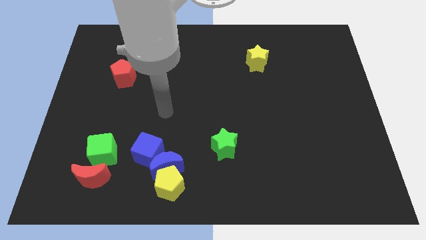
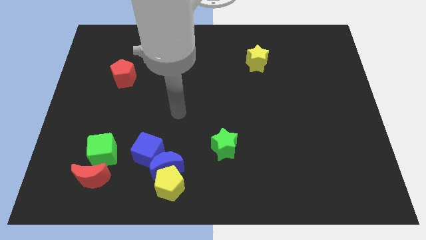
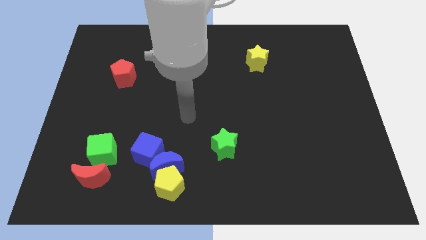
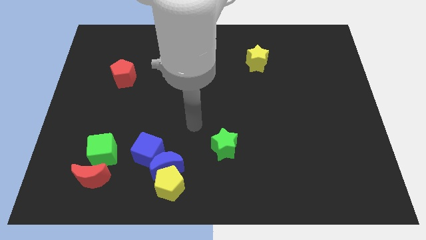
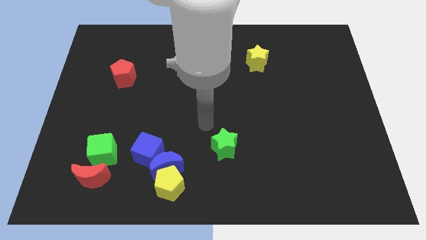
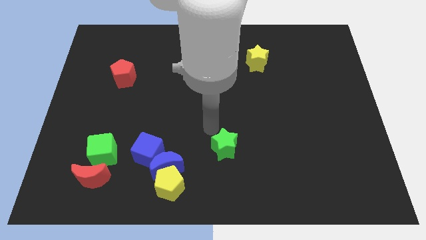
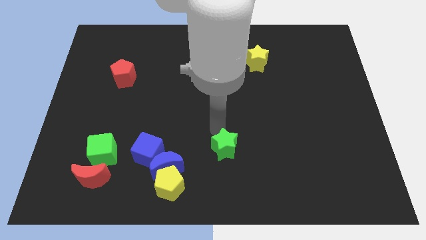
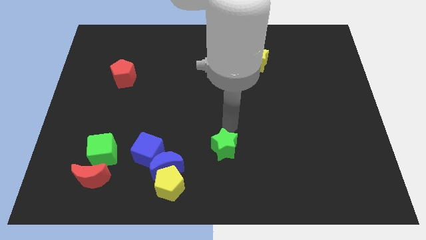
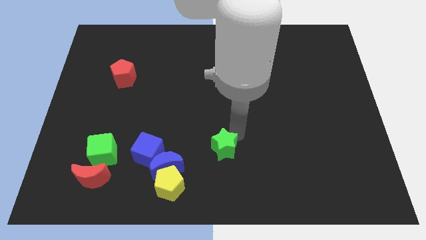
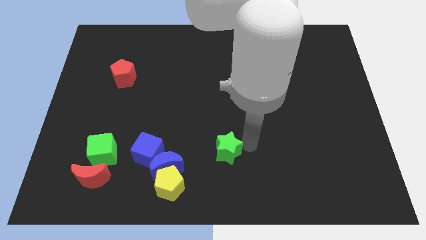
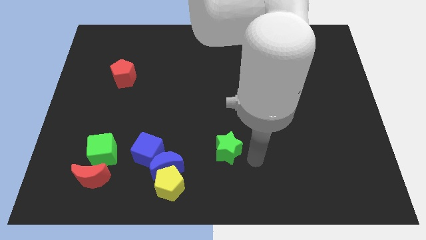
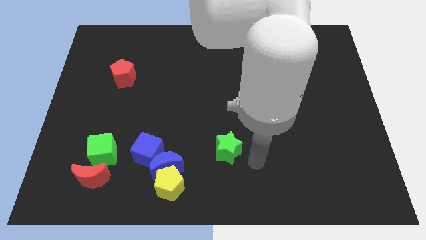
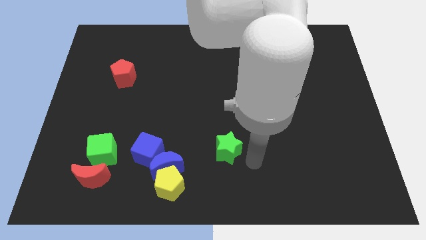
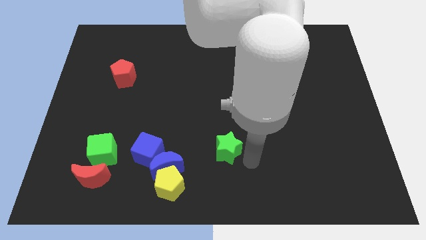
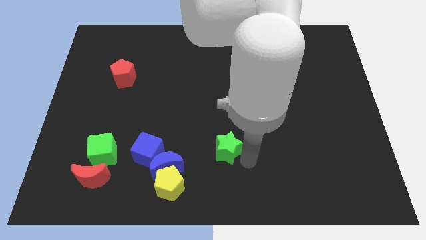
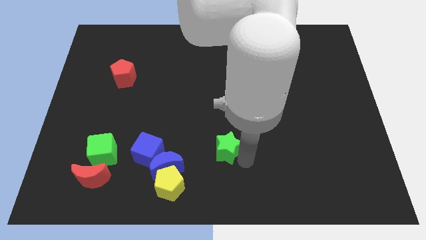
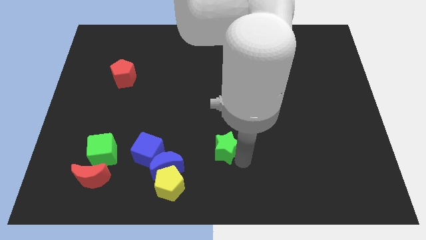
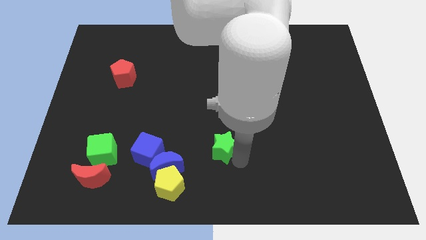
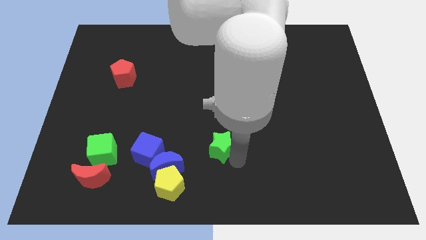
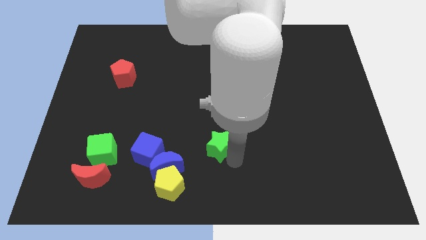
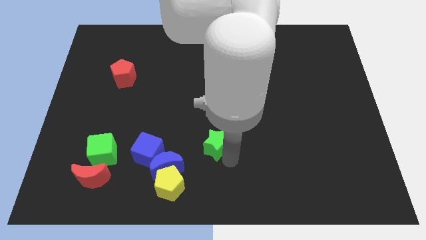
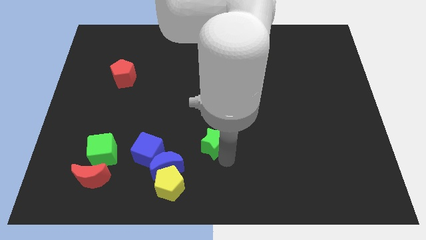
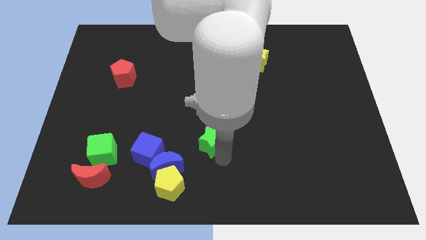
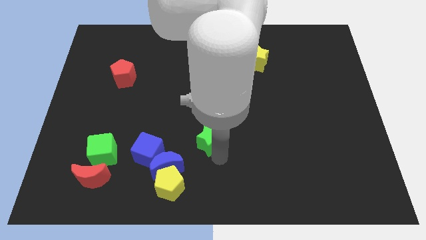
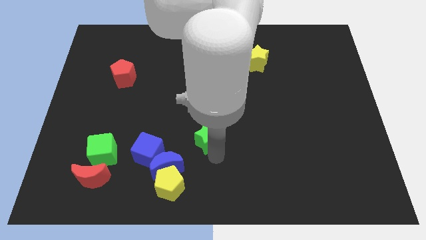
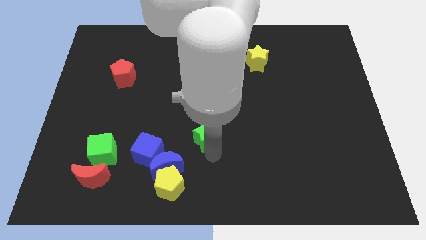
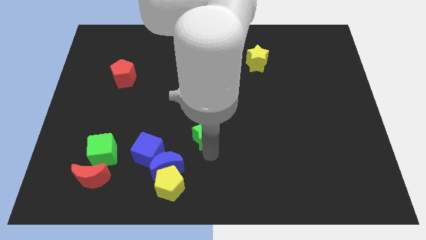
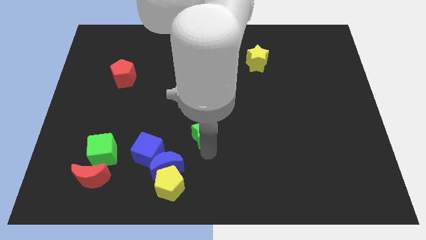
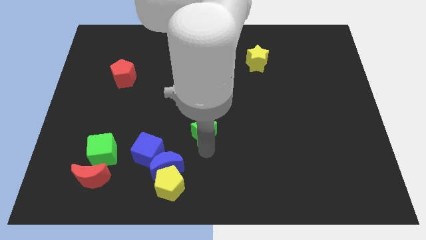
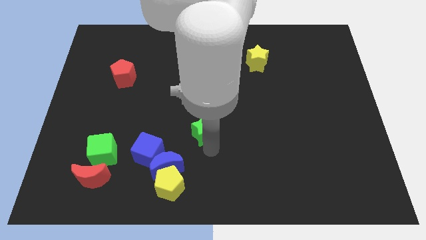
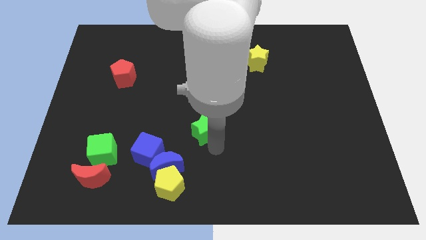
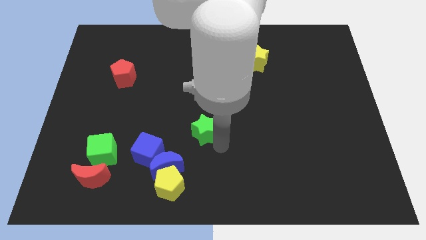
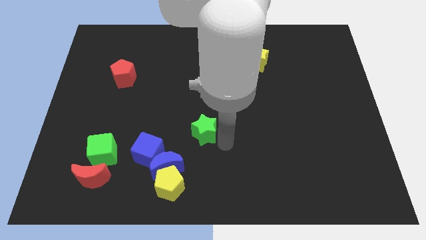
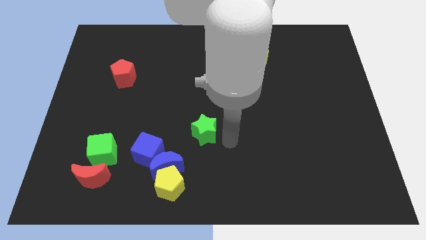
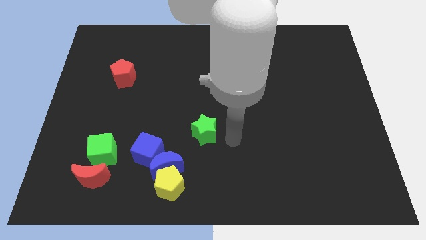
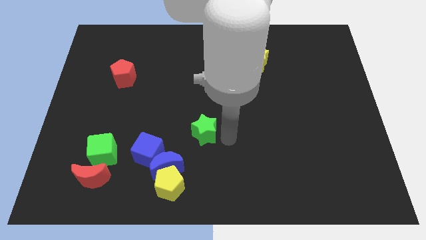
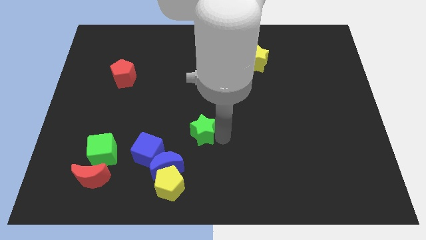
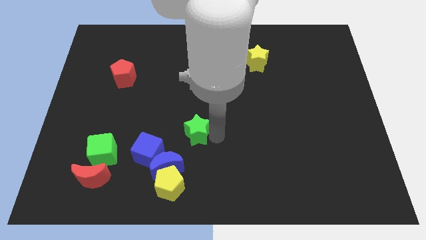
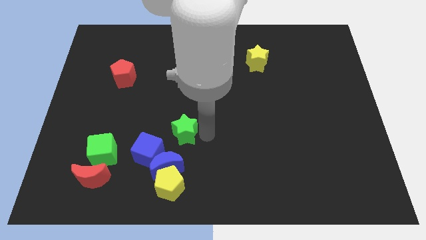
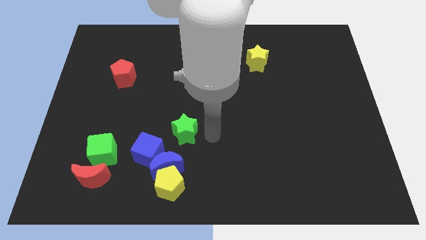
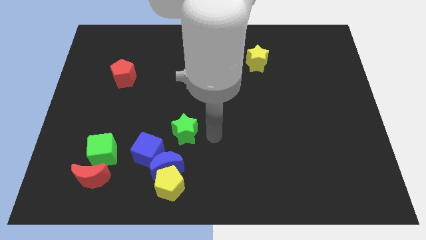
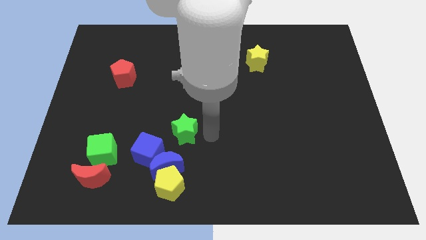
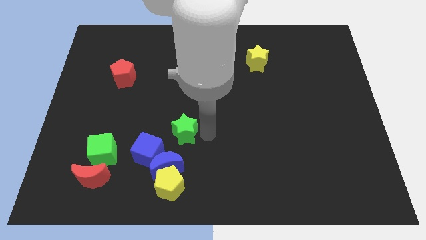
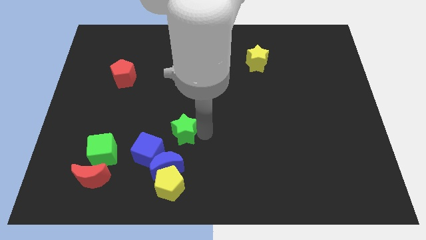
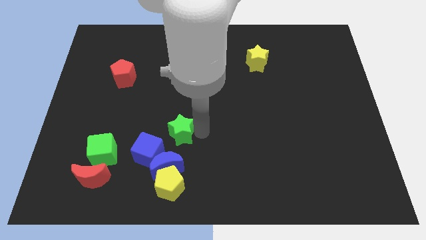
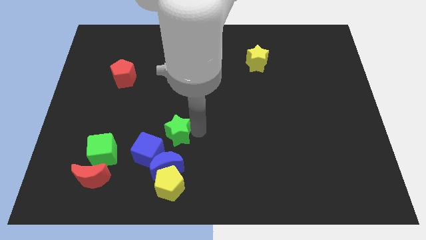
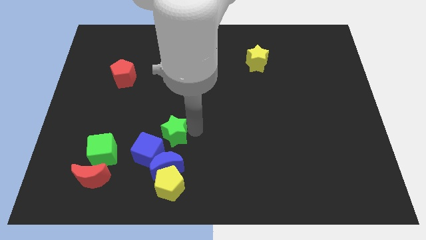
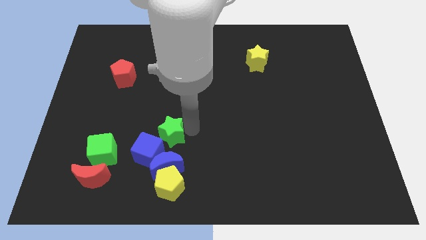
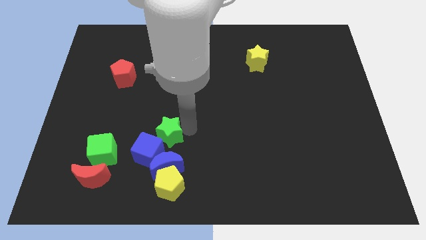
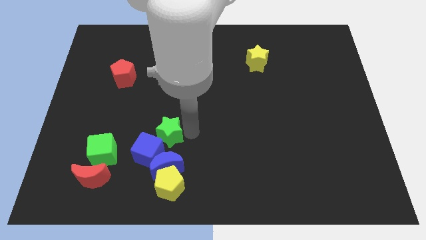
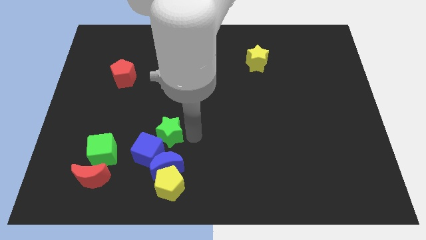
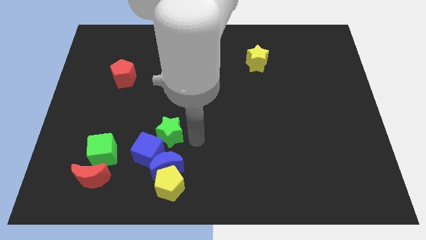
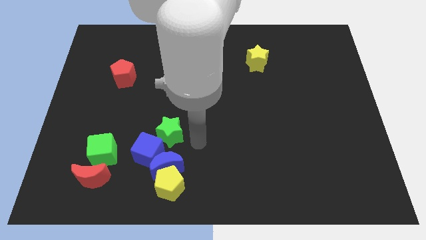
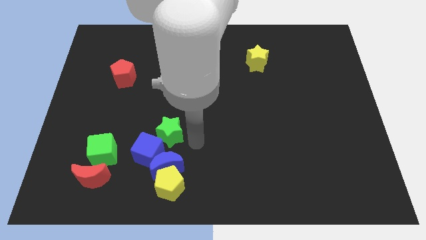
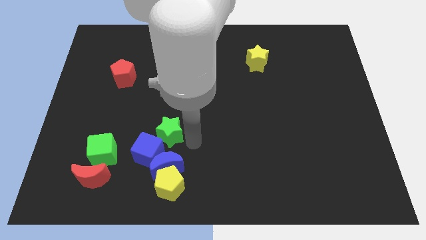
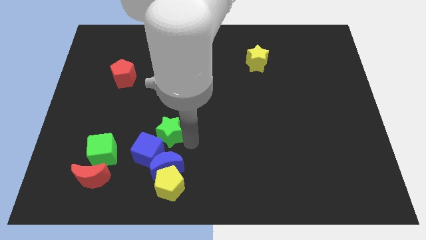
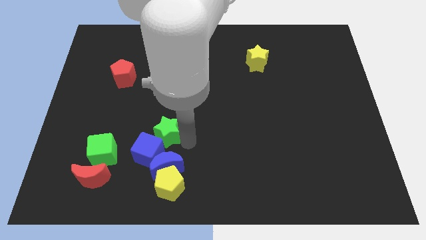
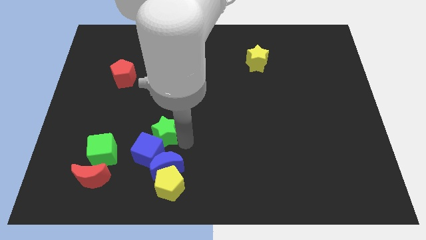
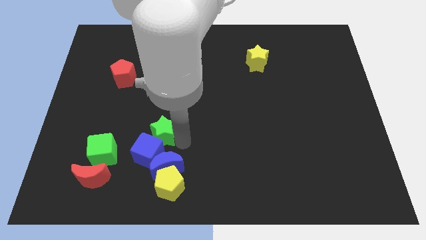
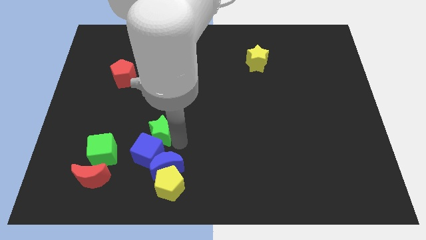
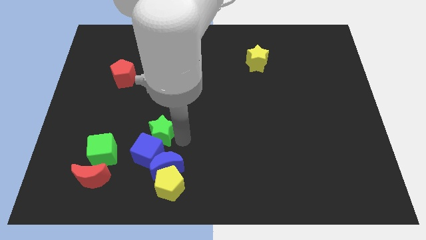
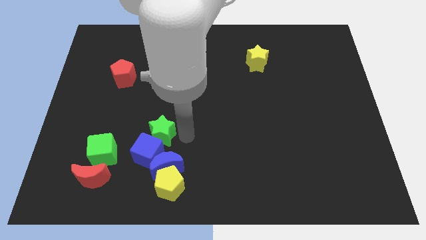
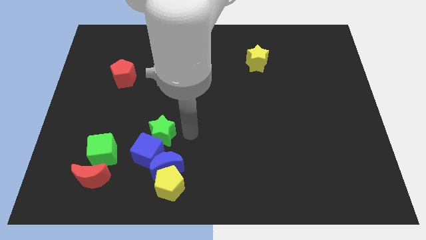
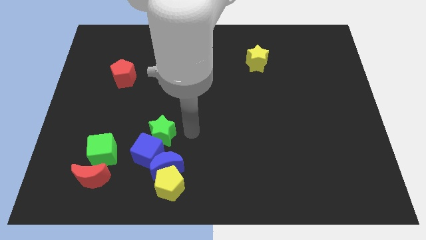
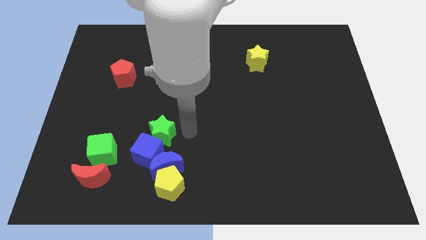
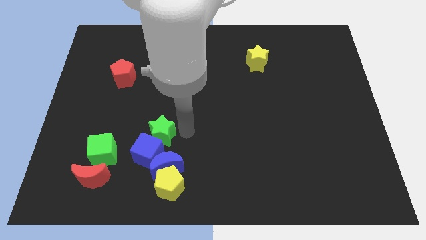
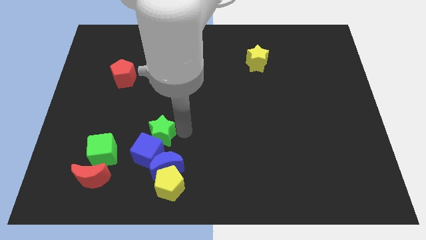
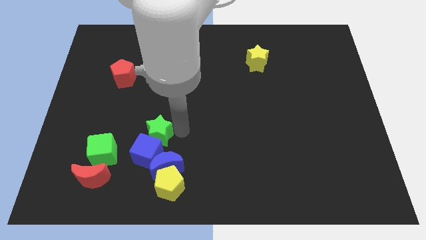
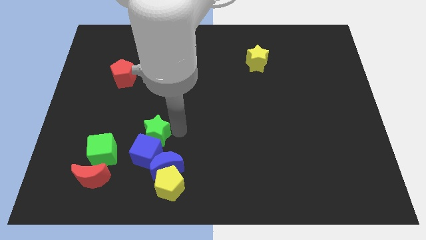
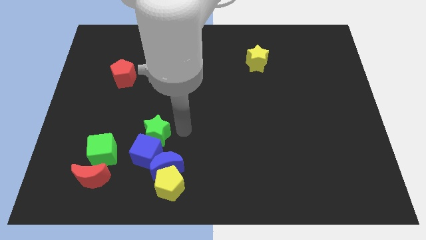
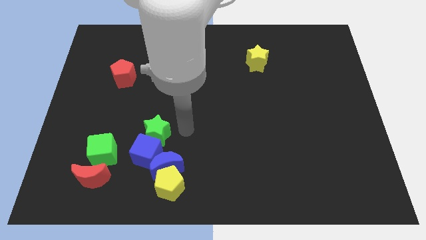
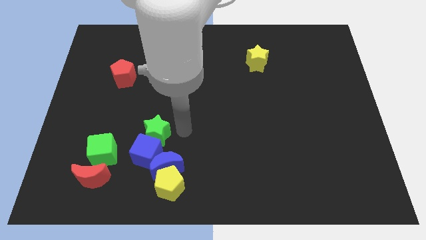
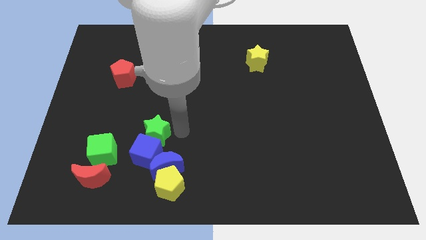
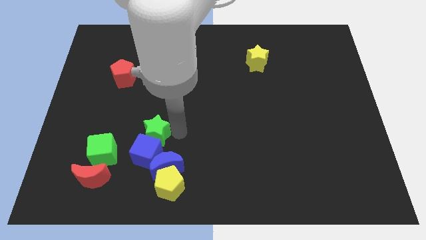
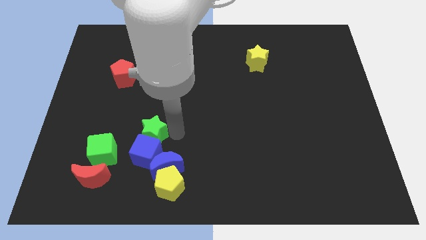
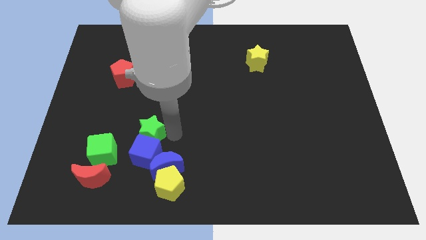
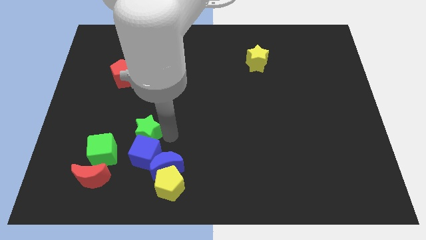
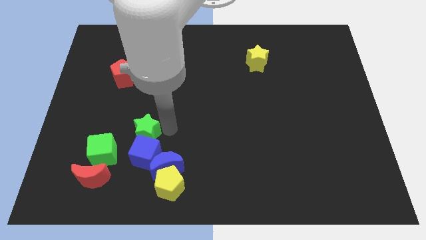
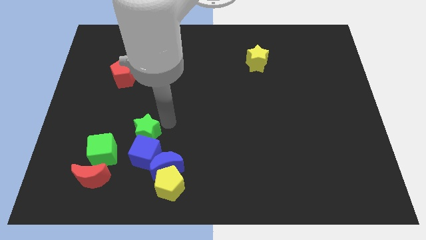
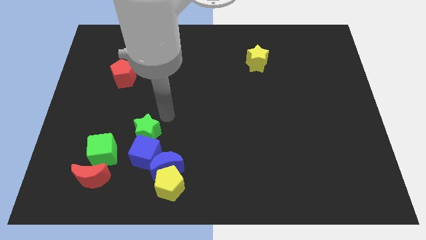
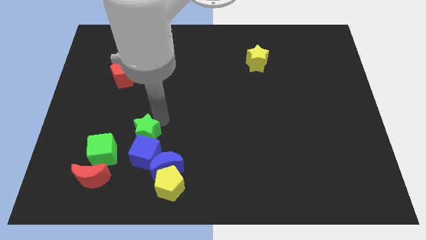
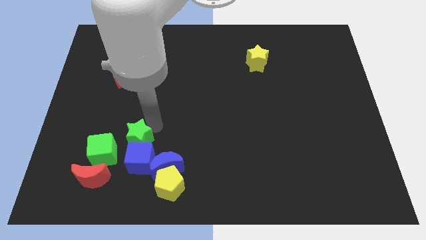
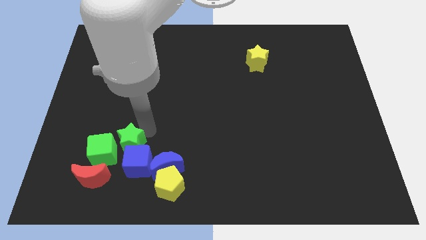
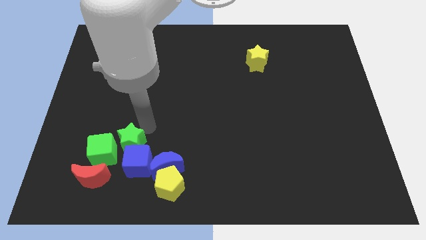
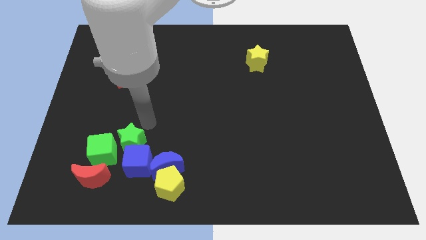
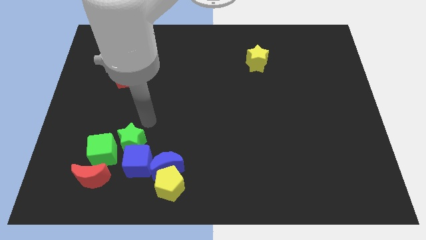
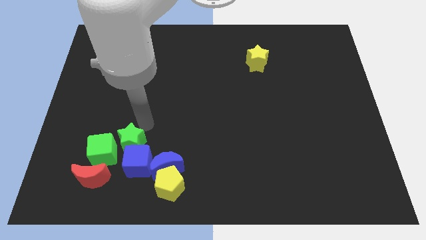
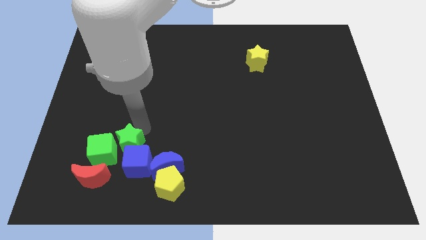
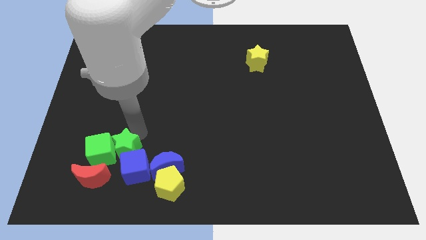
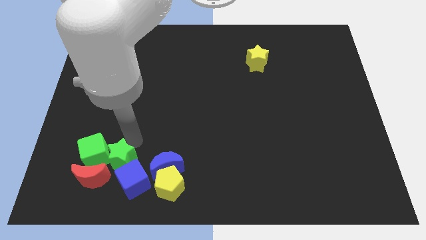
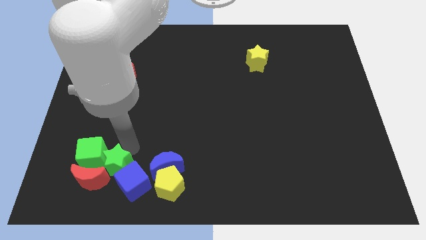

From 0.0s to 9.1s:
move the green star to the red moon
